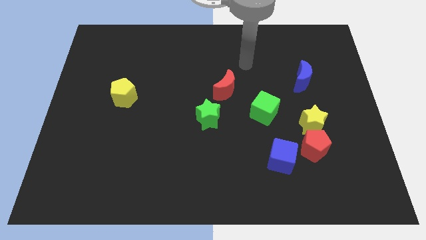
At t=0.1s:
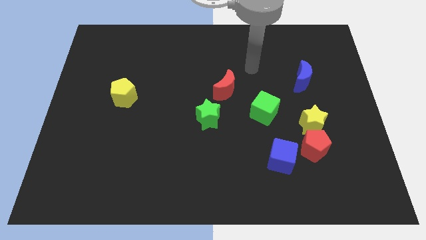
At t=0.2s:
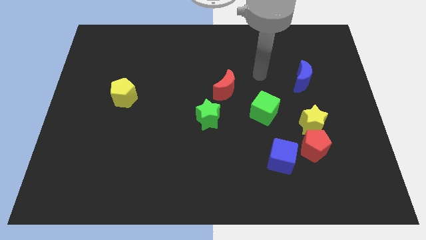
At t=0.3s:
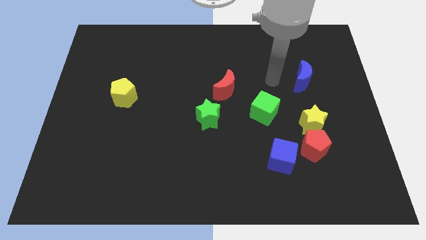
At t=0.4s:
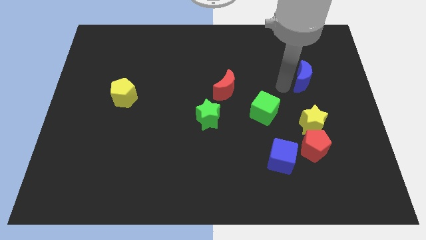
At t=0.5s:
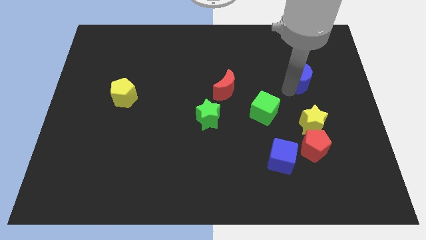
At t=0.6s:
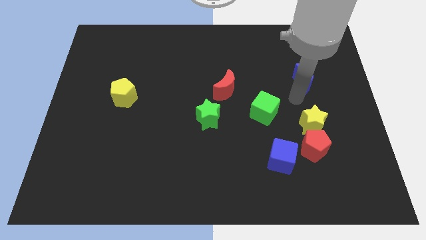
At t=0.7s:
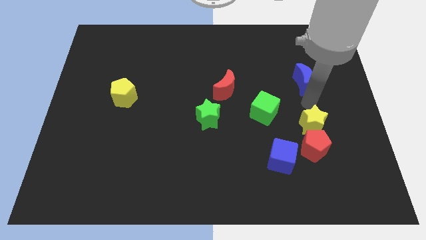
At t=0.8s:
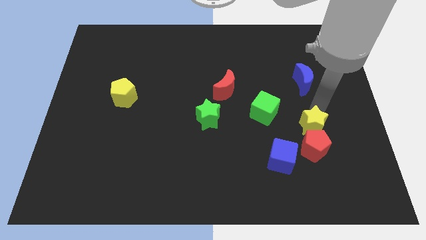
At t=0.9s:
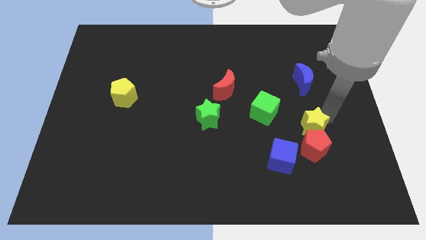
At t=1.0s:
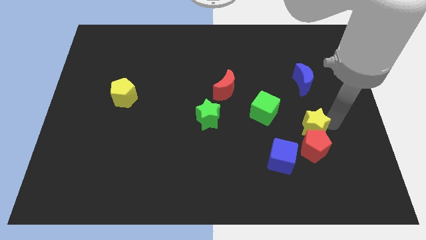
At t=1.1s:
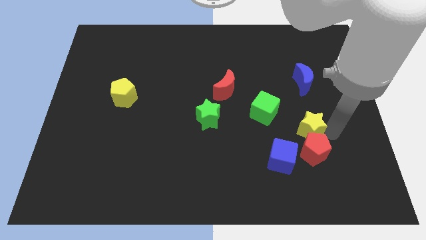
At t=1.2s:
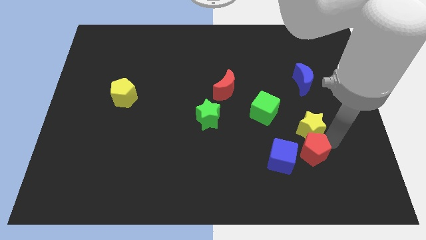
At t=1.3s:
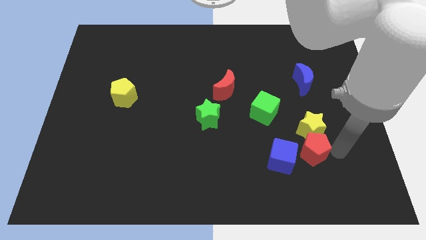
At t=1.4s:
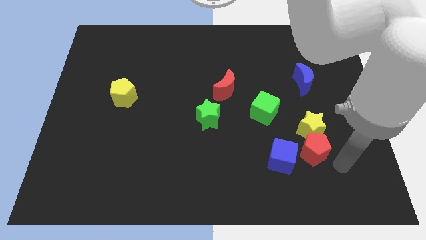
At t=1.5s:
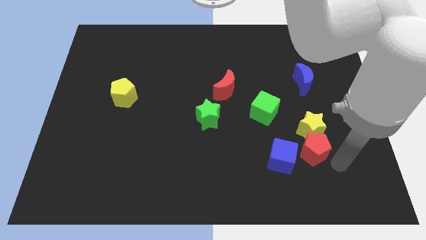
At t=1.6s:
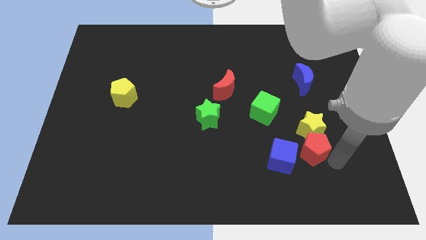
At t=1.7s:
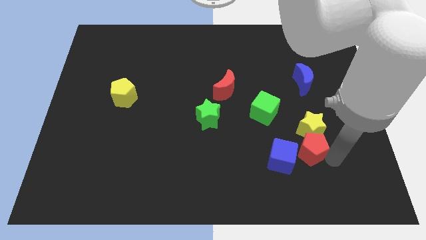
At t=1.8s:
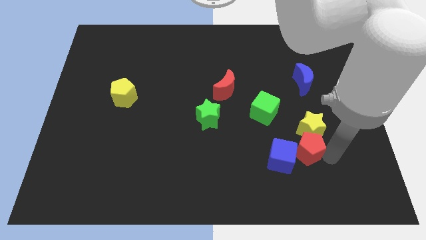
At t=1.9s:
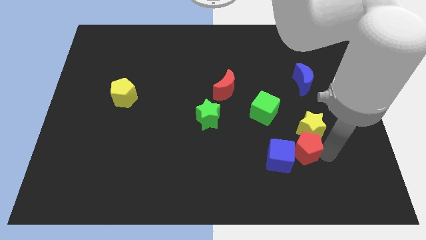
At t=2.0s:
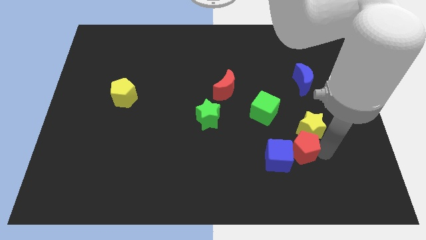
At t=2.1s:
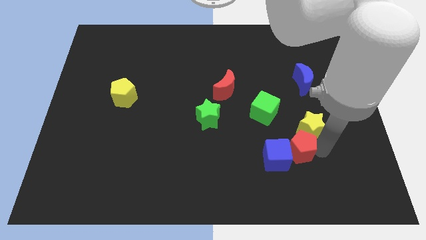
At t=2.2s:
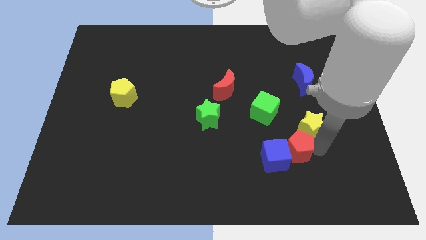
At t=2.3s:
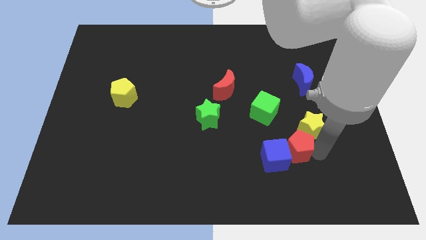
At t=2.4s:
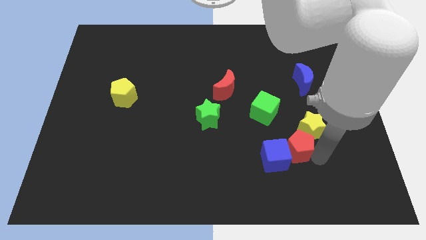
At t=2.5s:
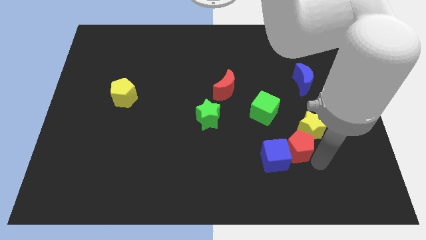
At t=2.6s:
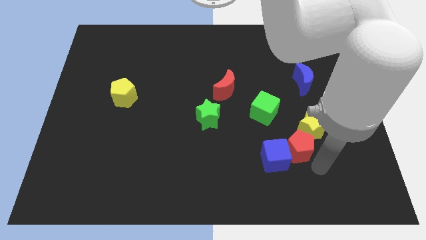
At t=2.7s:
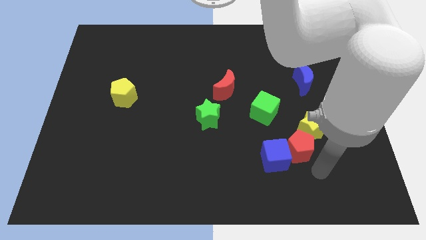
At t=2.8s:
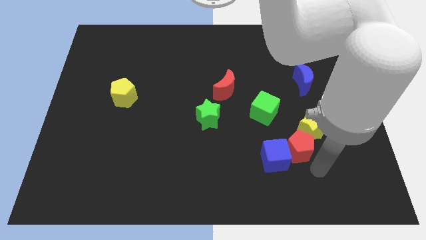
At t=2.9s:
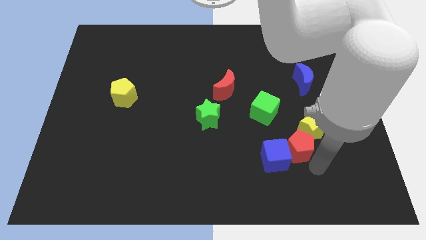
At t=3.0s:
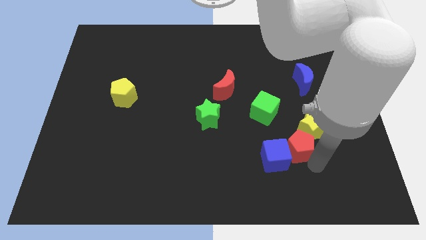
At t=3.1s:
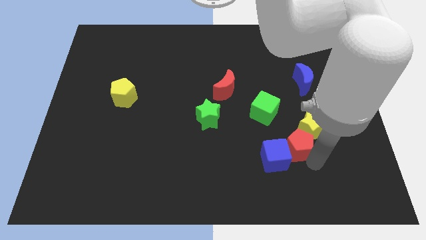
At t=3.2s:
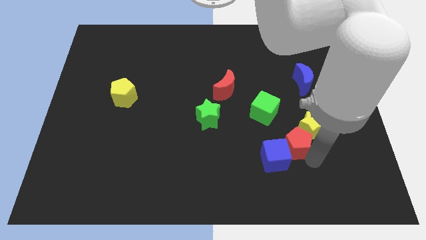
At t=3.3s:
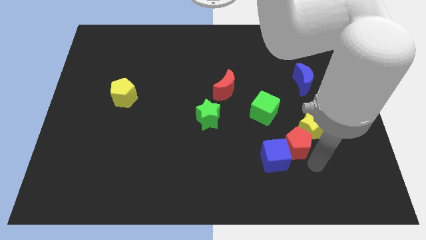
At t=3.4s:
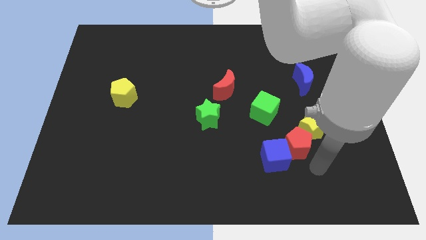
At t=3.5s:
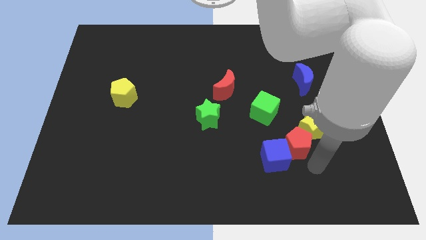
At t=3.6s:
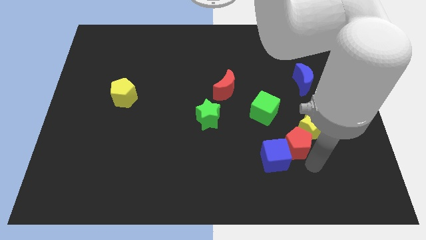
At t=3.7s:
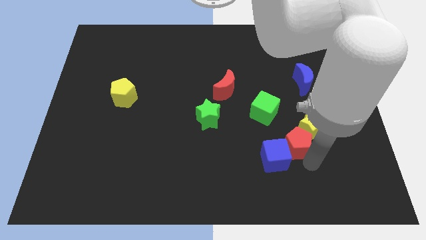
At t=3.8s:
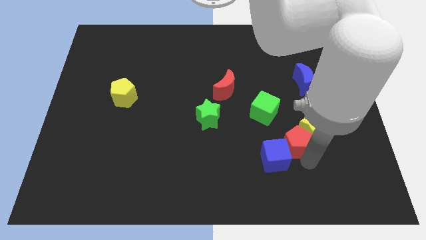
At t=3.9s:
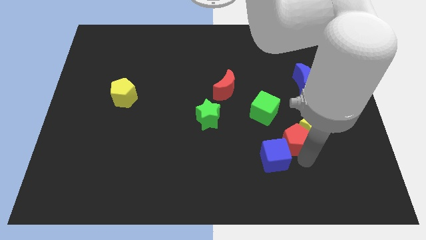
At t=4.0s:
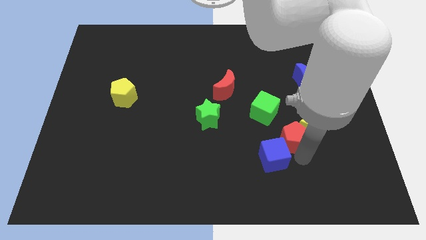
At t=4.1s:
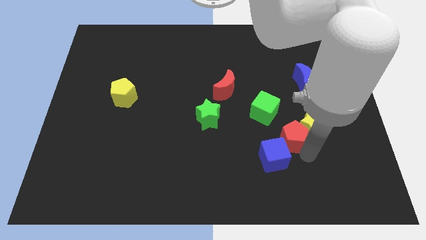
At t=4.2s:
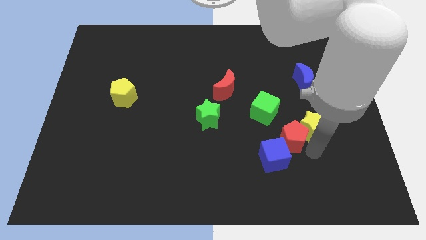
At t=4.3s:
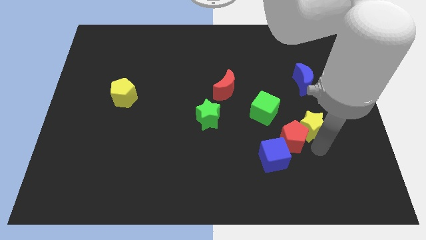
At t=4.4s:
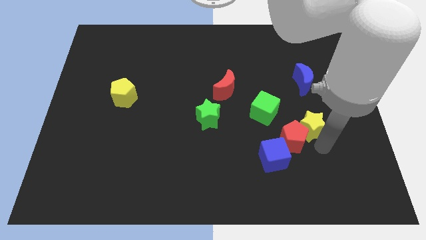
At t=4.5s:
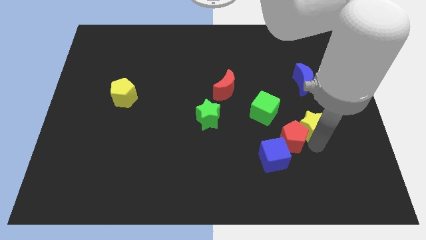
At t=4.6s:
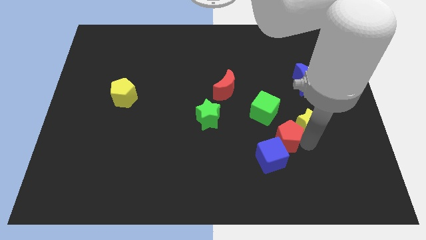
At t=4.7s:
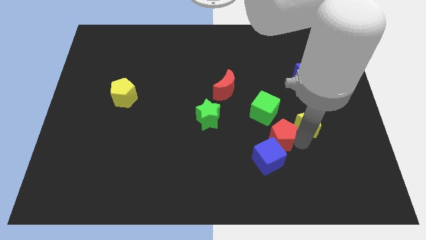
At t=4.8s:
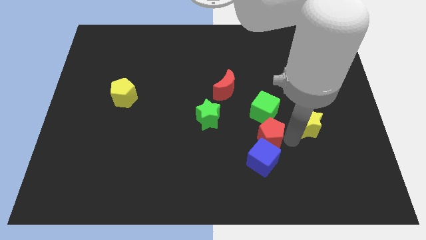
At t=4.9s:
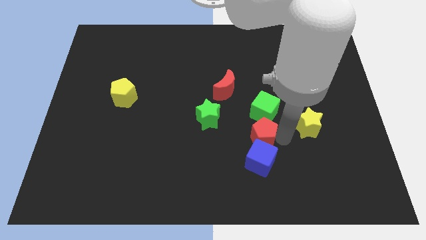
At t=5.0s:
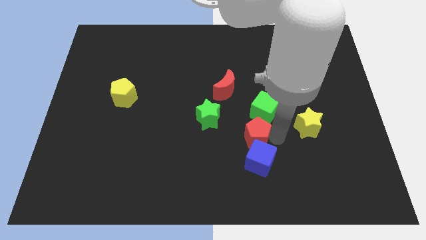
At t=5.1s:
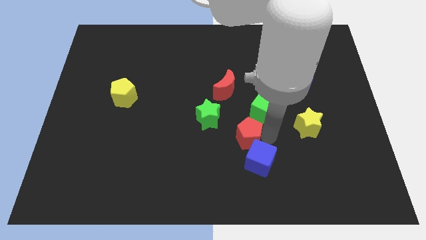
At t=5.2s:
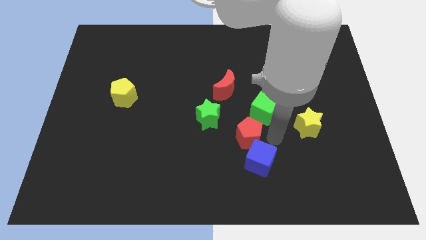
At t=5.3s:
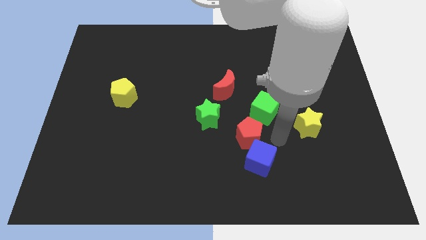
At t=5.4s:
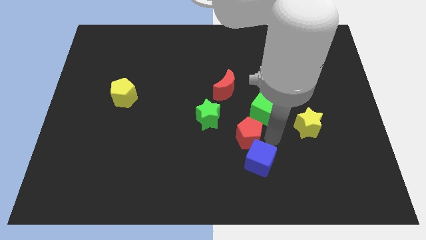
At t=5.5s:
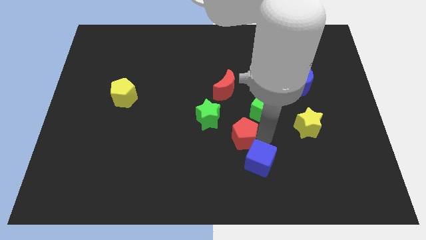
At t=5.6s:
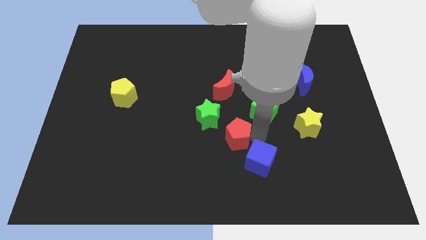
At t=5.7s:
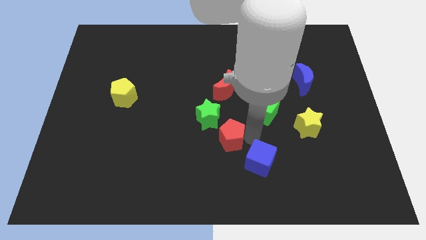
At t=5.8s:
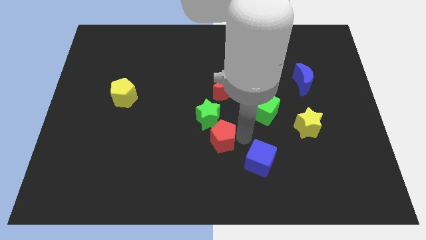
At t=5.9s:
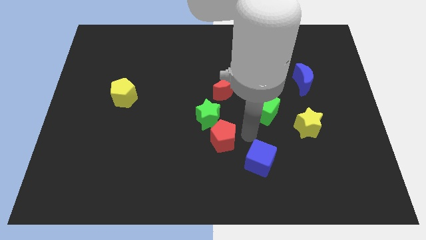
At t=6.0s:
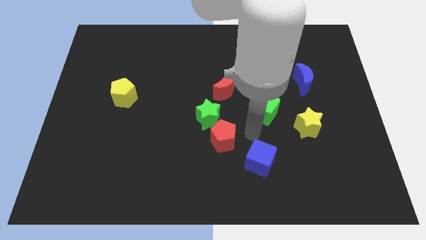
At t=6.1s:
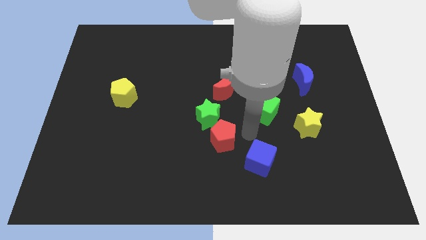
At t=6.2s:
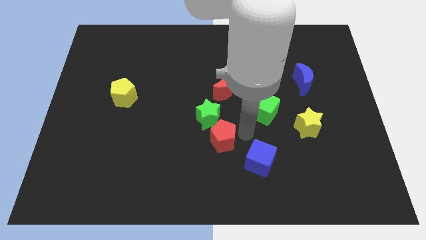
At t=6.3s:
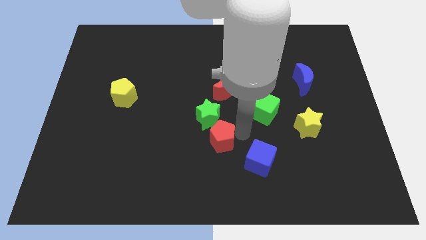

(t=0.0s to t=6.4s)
move the red pentagon to the left

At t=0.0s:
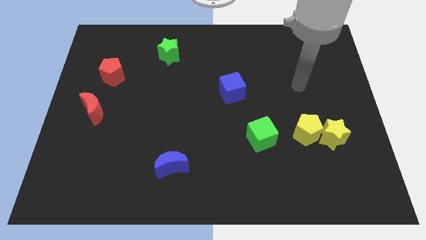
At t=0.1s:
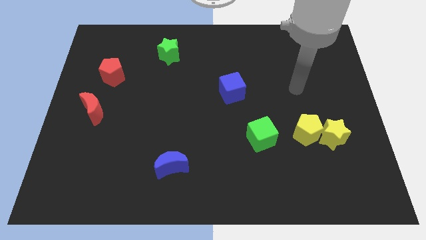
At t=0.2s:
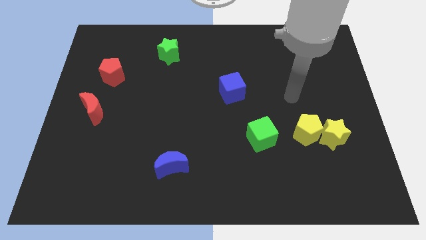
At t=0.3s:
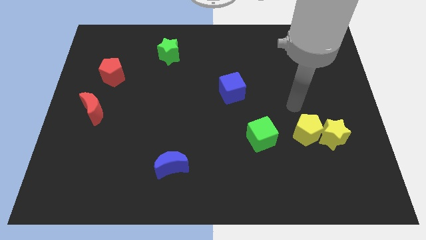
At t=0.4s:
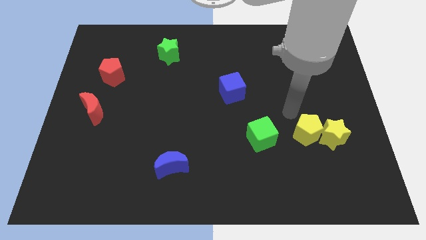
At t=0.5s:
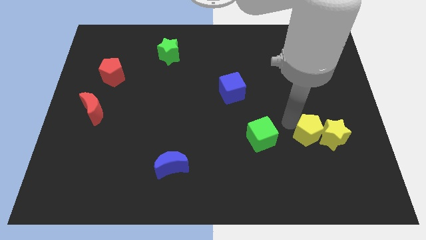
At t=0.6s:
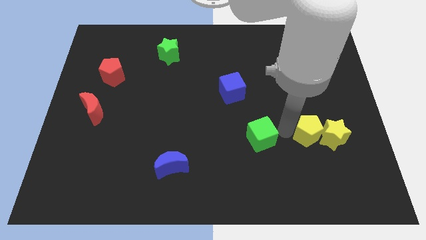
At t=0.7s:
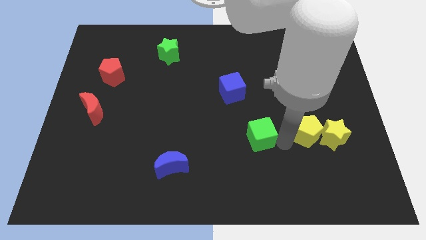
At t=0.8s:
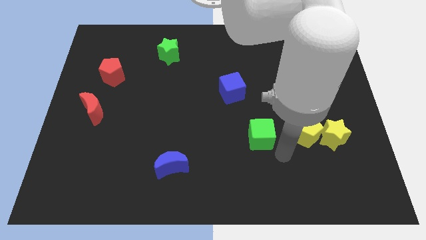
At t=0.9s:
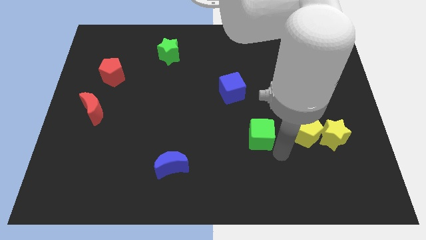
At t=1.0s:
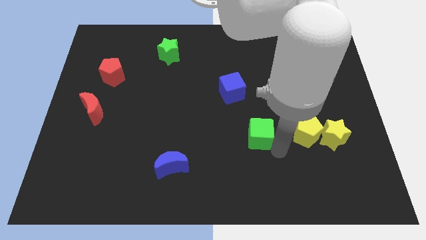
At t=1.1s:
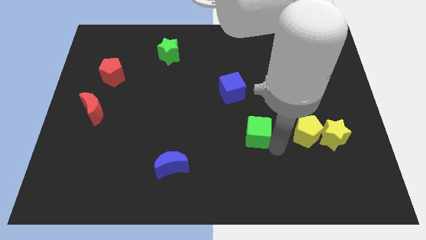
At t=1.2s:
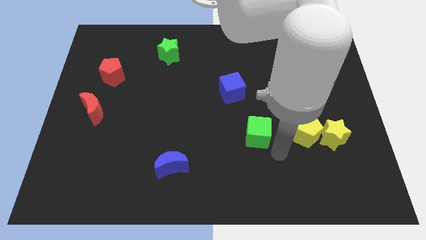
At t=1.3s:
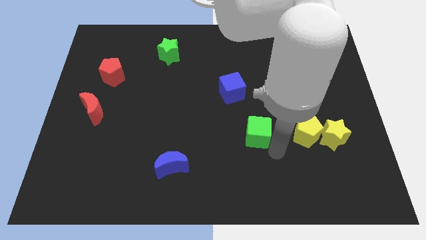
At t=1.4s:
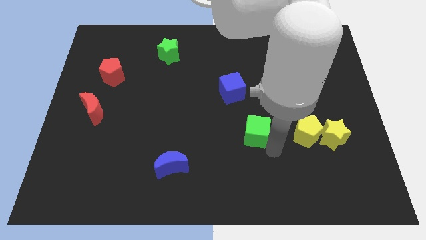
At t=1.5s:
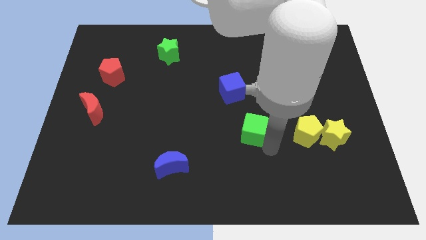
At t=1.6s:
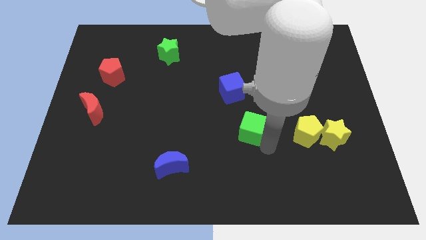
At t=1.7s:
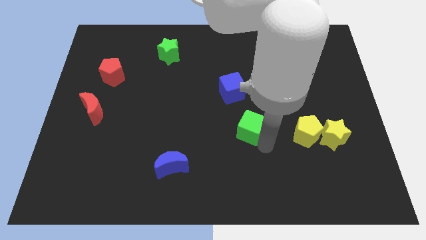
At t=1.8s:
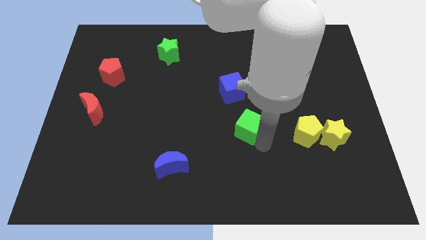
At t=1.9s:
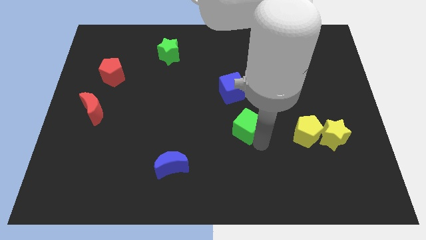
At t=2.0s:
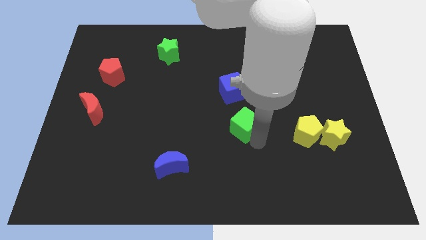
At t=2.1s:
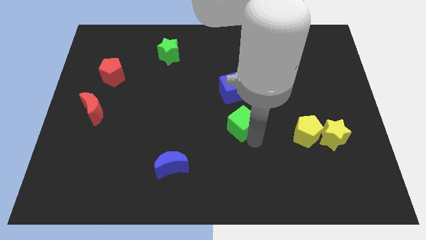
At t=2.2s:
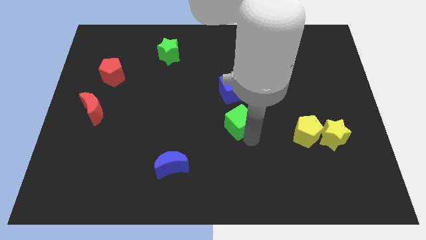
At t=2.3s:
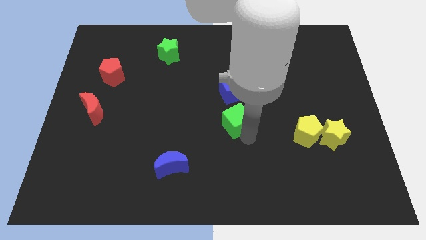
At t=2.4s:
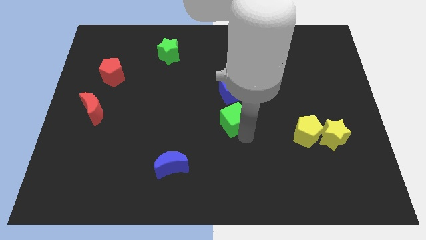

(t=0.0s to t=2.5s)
slightly push the green cube diagonally up and left
